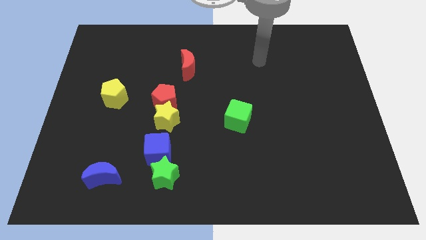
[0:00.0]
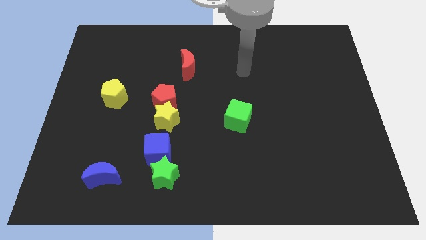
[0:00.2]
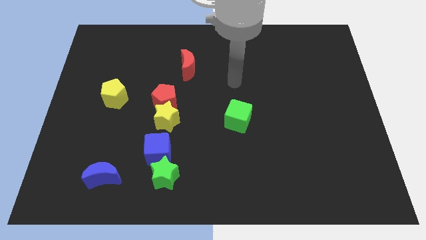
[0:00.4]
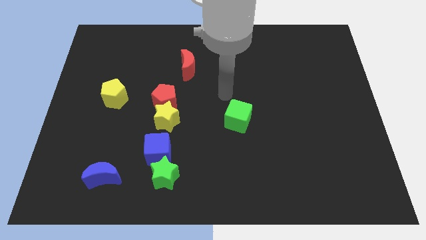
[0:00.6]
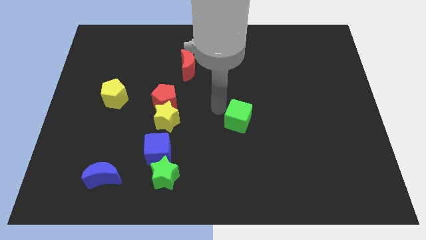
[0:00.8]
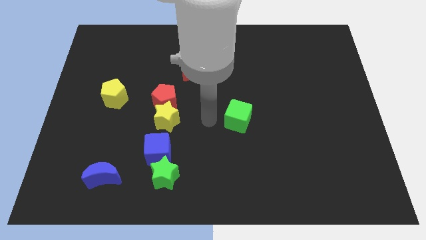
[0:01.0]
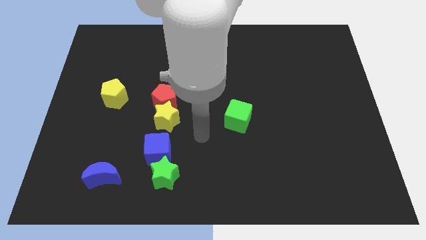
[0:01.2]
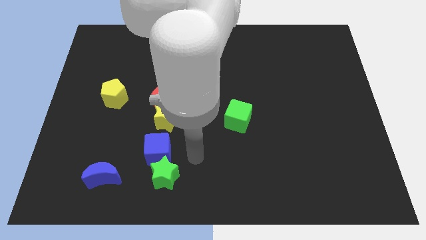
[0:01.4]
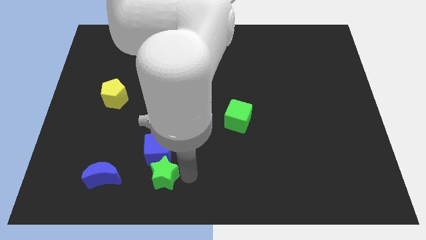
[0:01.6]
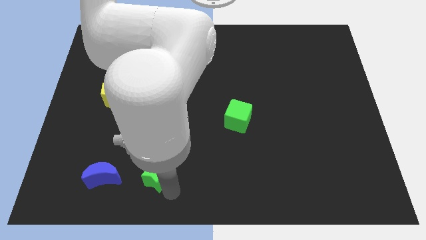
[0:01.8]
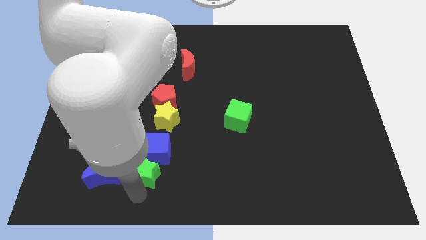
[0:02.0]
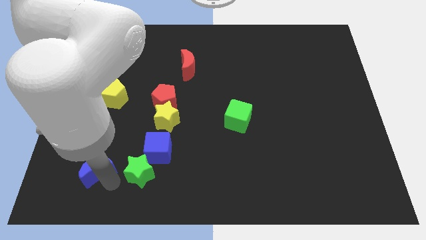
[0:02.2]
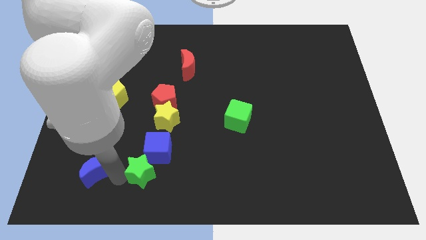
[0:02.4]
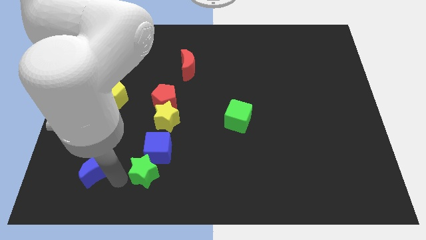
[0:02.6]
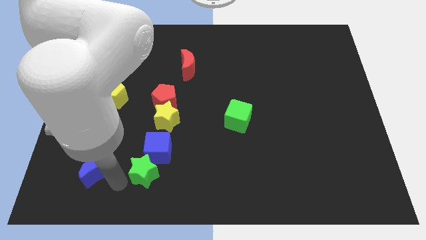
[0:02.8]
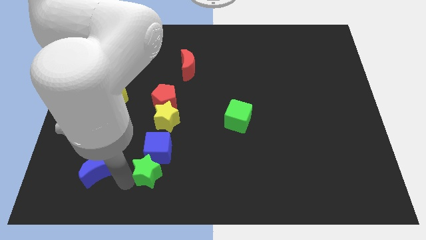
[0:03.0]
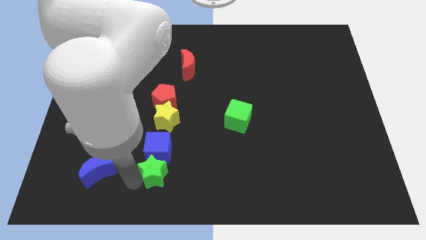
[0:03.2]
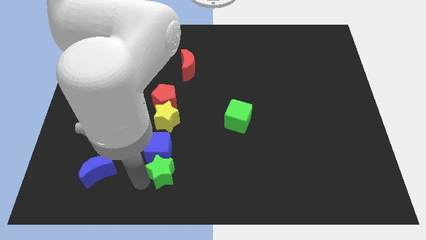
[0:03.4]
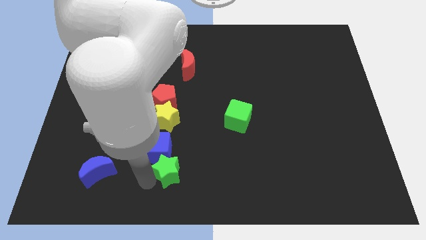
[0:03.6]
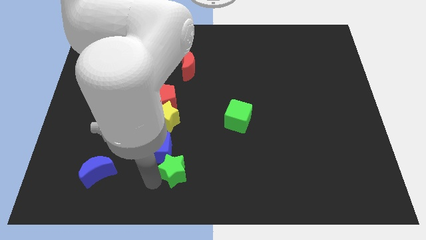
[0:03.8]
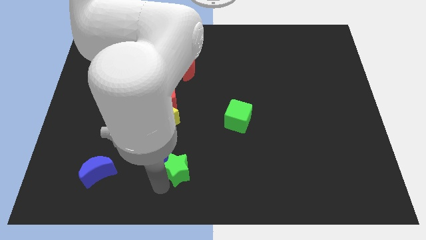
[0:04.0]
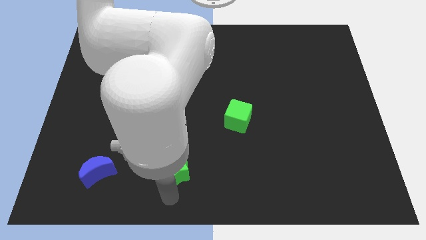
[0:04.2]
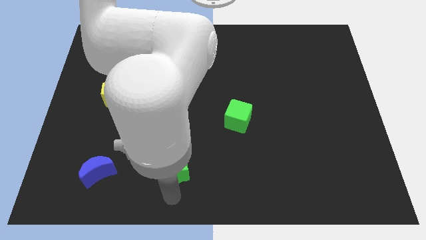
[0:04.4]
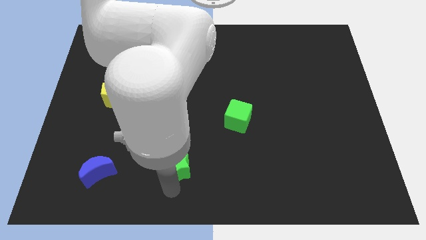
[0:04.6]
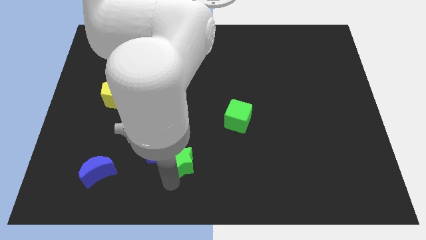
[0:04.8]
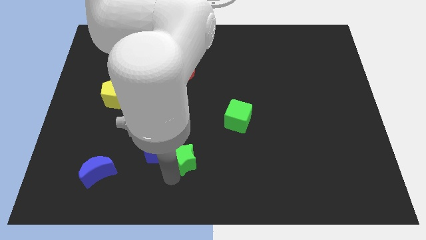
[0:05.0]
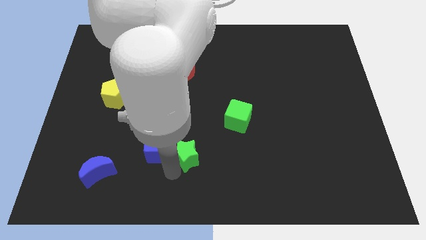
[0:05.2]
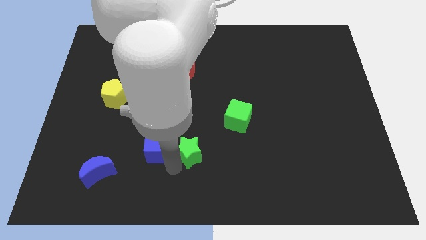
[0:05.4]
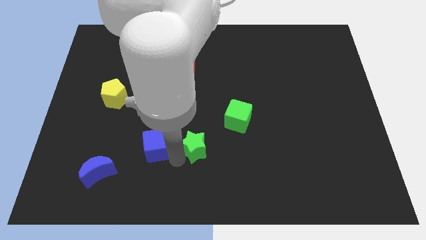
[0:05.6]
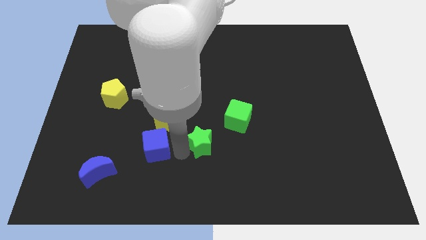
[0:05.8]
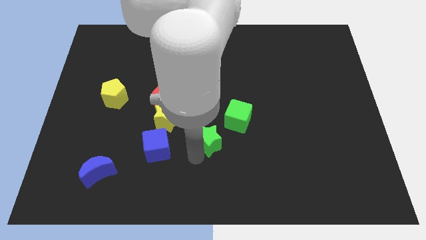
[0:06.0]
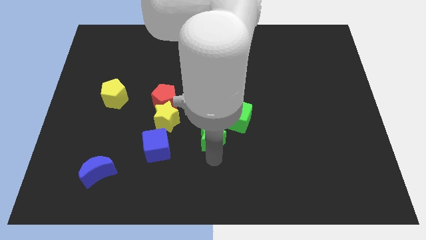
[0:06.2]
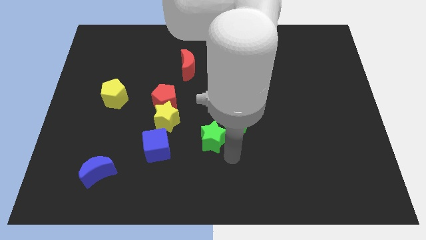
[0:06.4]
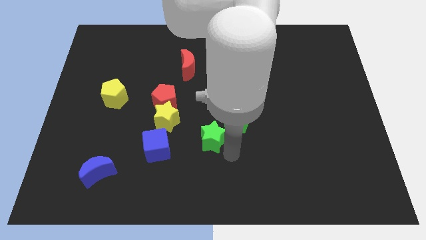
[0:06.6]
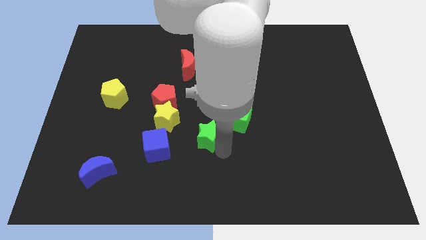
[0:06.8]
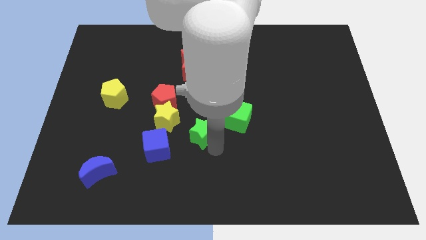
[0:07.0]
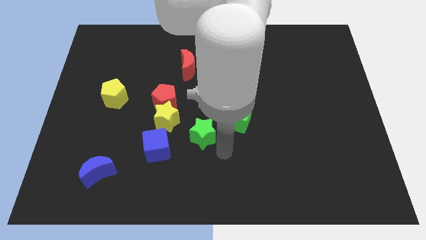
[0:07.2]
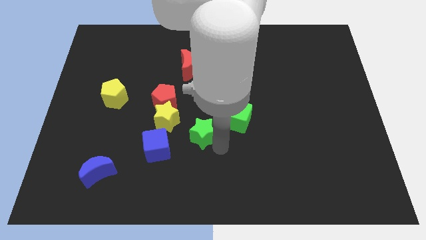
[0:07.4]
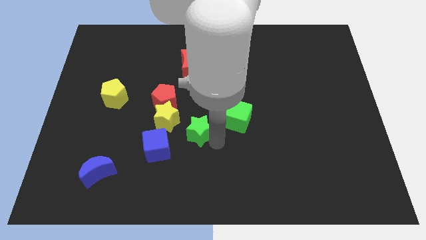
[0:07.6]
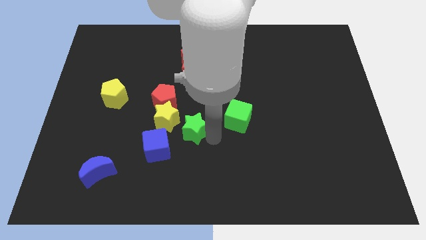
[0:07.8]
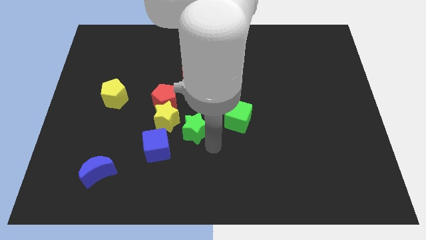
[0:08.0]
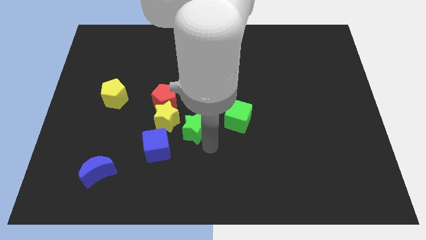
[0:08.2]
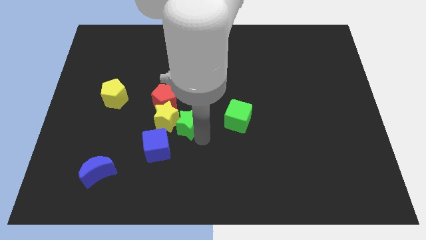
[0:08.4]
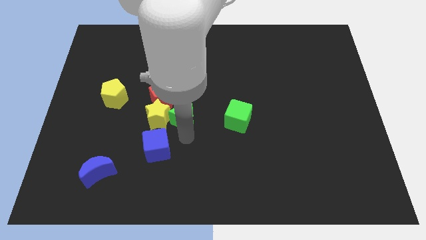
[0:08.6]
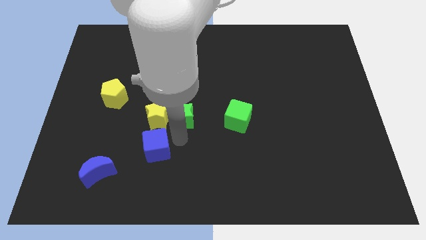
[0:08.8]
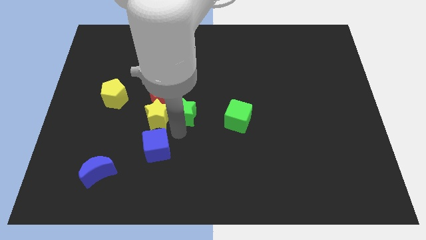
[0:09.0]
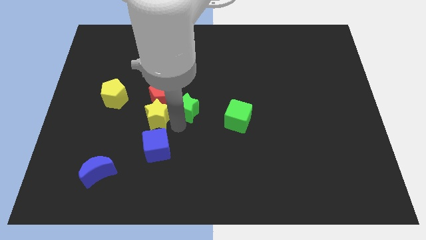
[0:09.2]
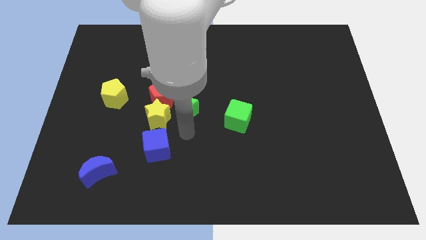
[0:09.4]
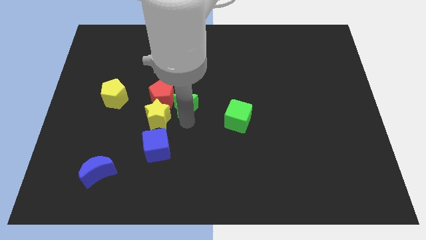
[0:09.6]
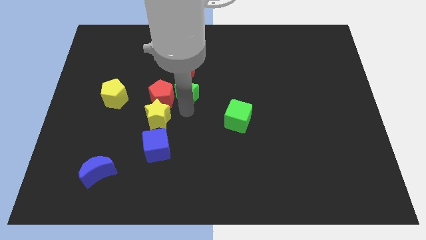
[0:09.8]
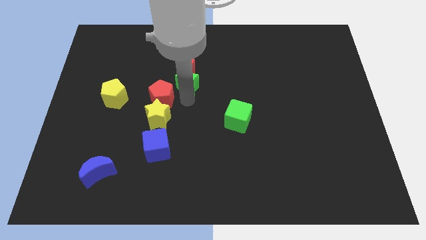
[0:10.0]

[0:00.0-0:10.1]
put the green star towards the red moon

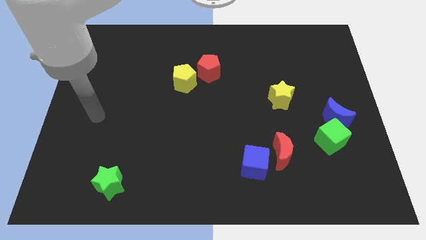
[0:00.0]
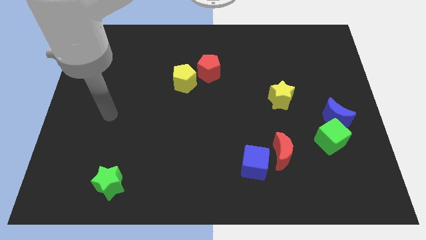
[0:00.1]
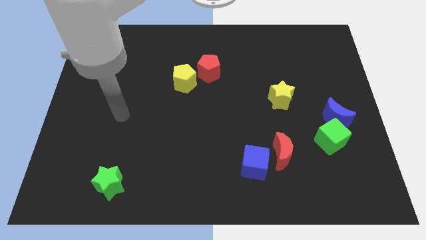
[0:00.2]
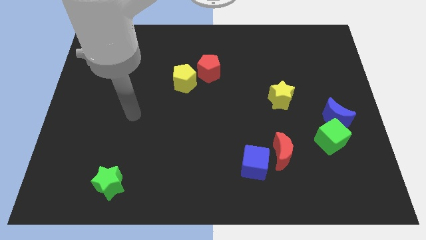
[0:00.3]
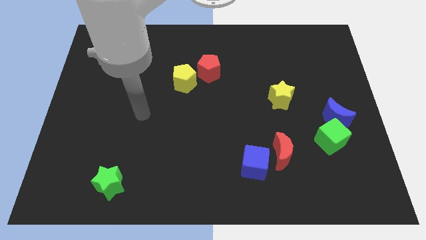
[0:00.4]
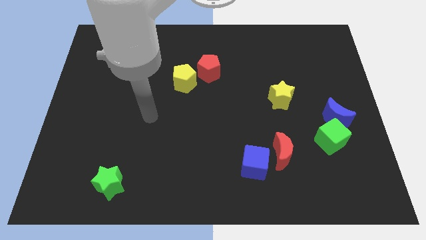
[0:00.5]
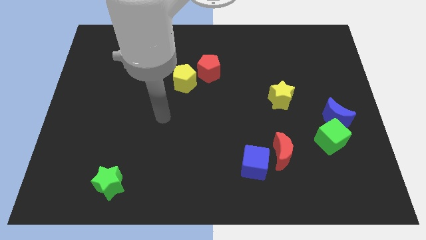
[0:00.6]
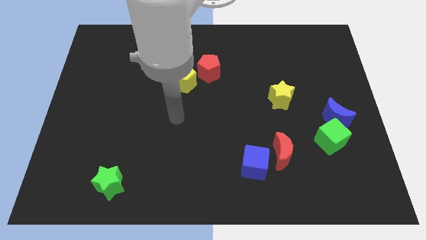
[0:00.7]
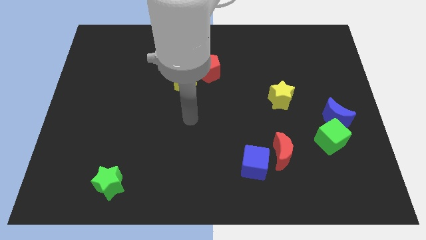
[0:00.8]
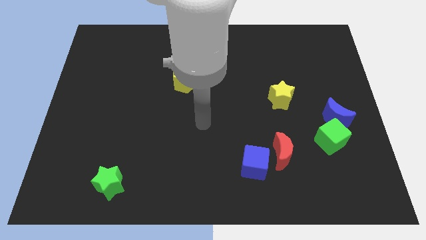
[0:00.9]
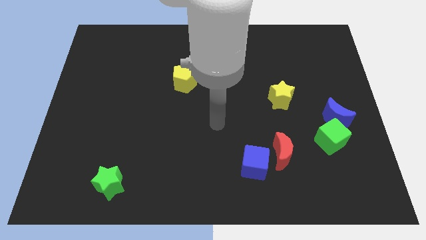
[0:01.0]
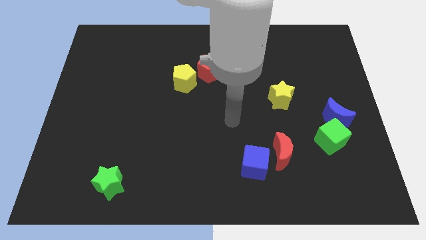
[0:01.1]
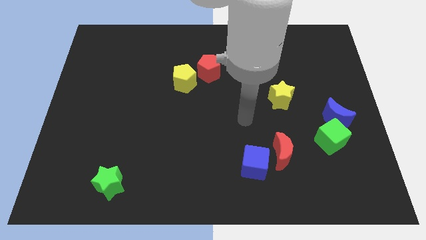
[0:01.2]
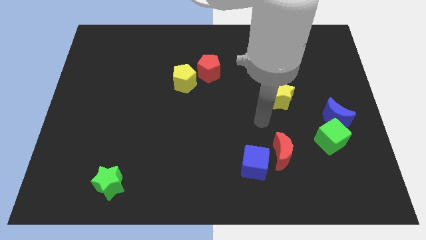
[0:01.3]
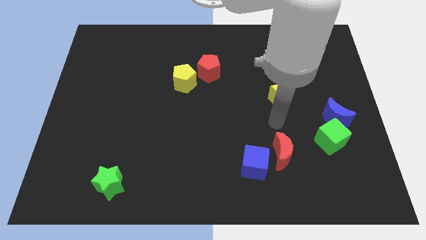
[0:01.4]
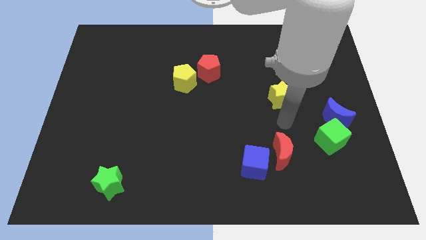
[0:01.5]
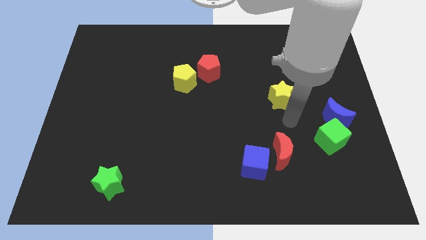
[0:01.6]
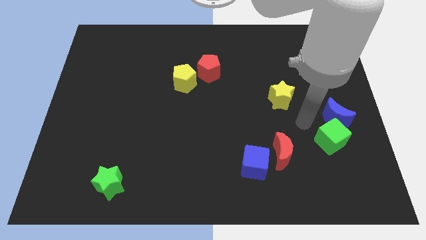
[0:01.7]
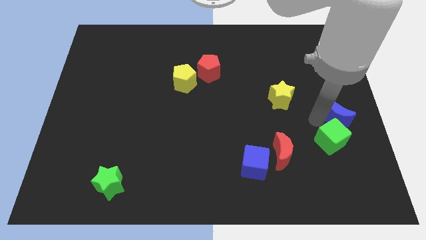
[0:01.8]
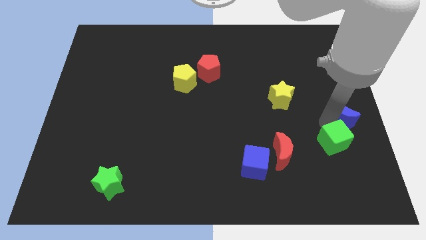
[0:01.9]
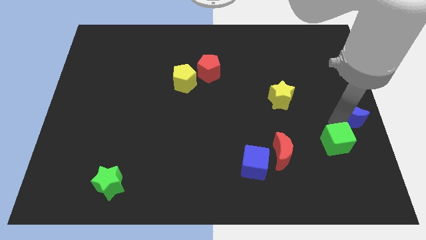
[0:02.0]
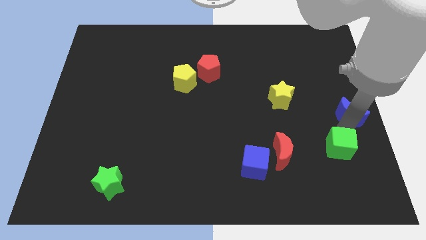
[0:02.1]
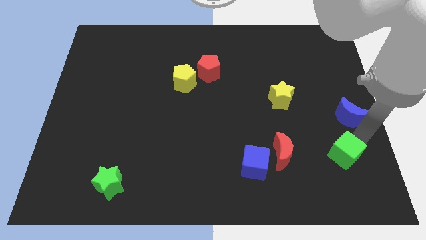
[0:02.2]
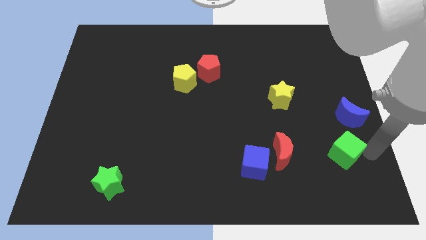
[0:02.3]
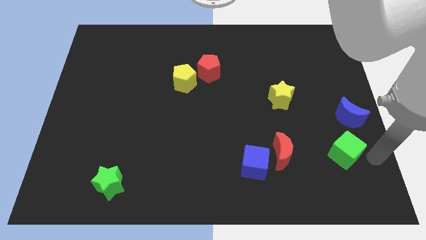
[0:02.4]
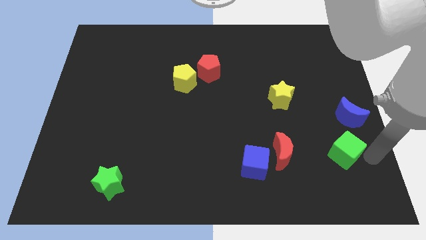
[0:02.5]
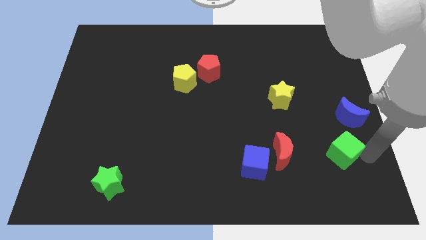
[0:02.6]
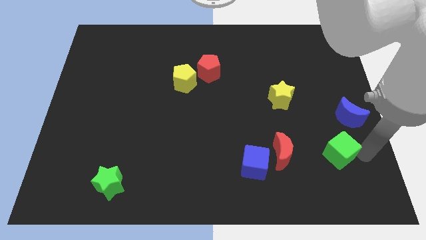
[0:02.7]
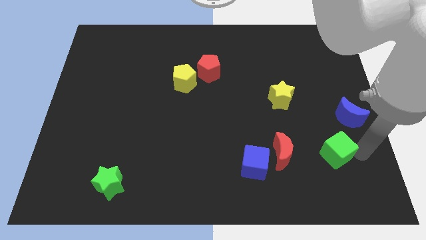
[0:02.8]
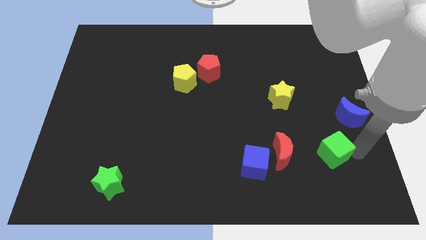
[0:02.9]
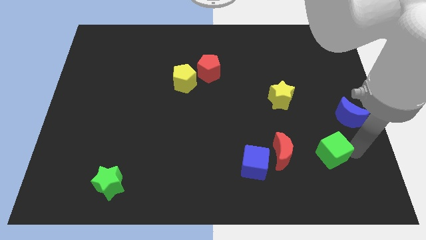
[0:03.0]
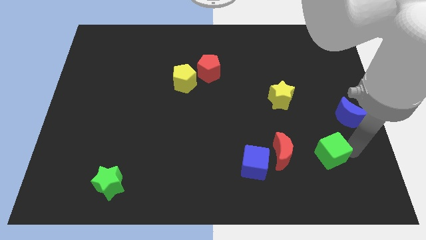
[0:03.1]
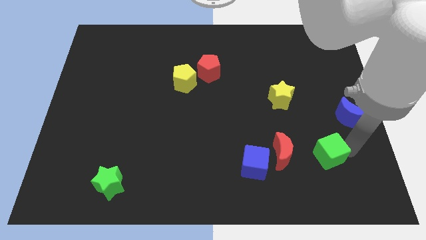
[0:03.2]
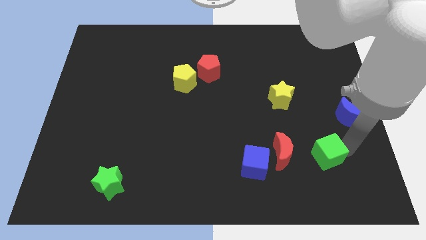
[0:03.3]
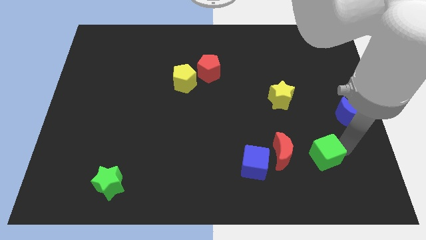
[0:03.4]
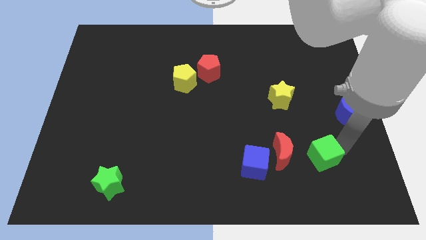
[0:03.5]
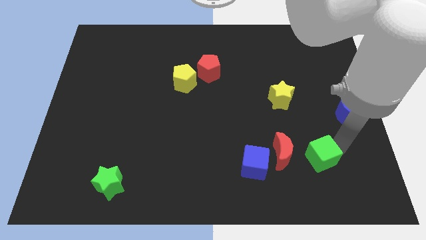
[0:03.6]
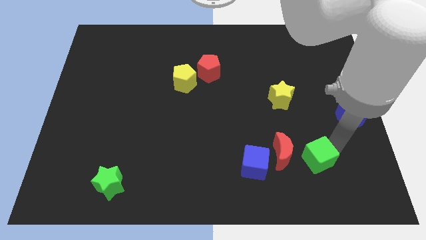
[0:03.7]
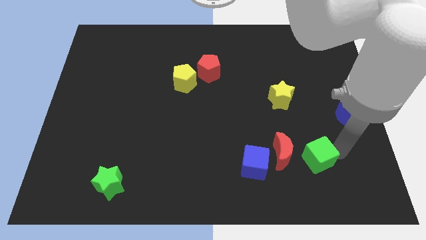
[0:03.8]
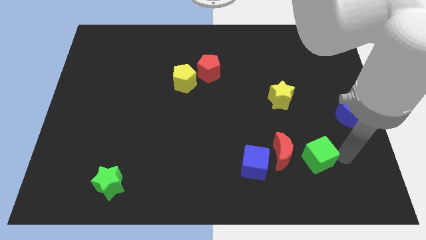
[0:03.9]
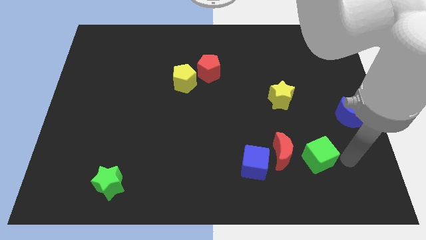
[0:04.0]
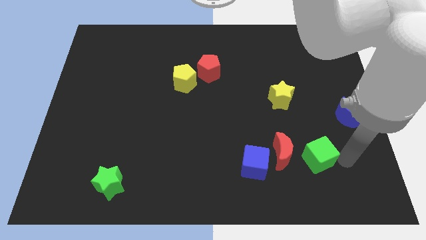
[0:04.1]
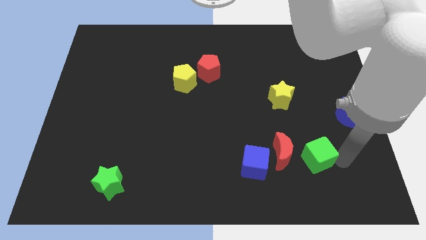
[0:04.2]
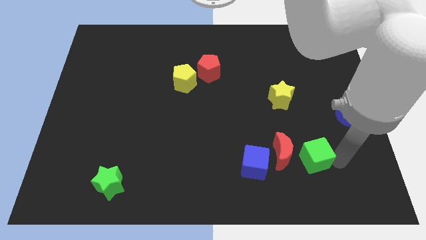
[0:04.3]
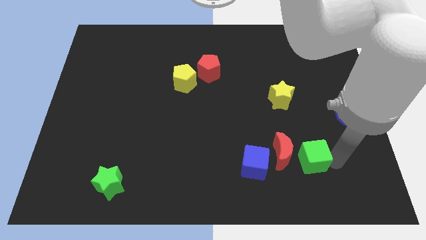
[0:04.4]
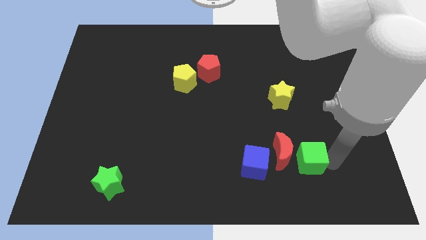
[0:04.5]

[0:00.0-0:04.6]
put the green cube to the red moon
